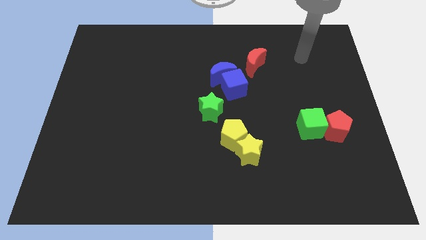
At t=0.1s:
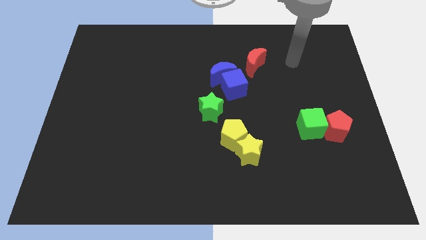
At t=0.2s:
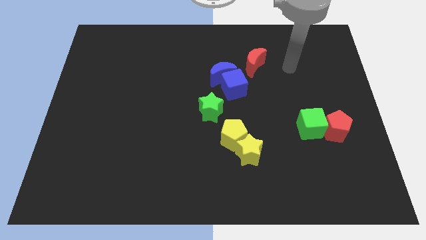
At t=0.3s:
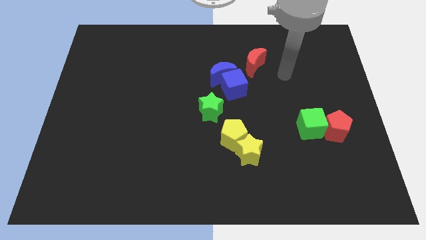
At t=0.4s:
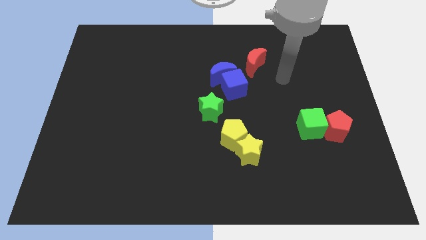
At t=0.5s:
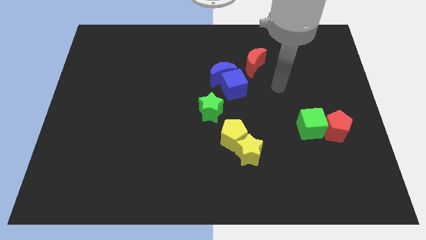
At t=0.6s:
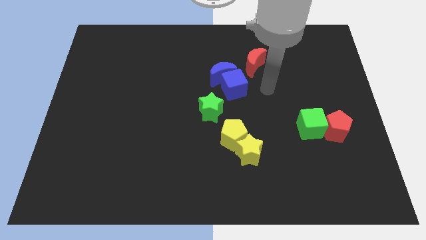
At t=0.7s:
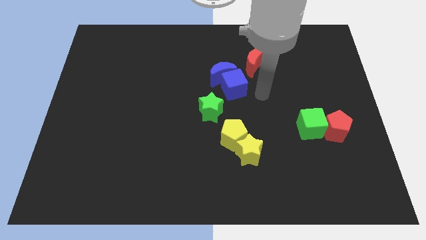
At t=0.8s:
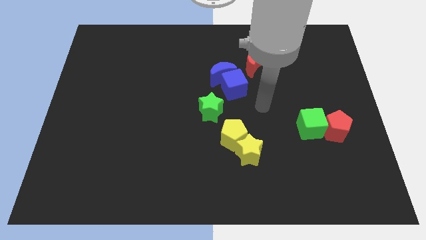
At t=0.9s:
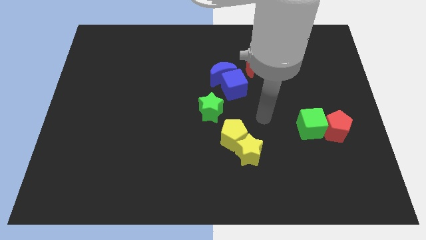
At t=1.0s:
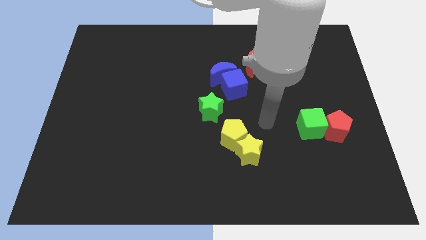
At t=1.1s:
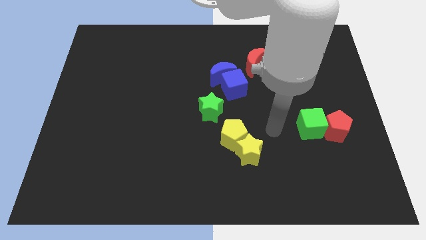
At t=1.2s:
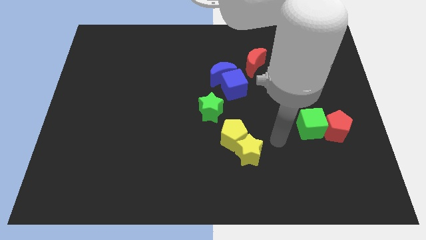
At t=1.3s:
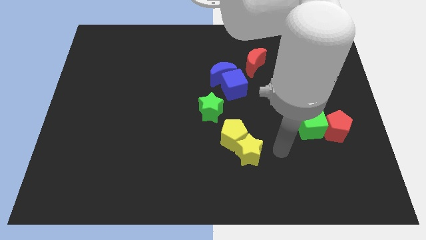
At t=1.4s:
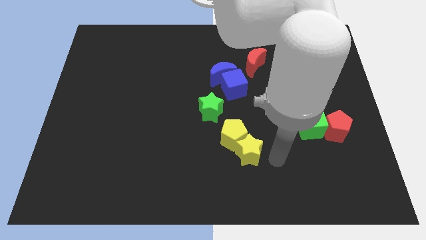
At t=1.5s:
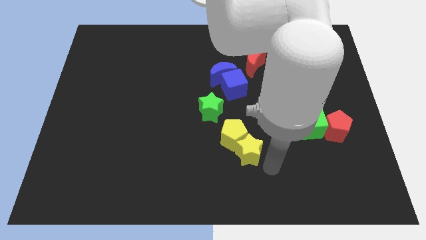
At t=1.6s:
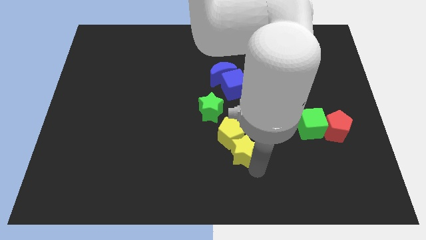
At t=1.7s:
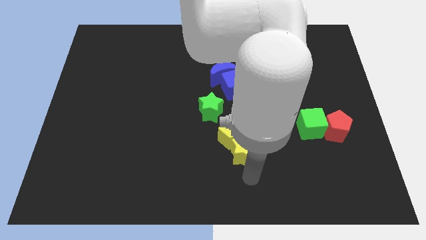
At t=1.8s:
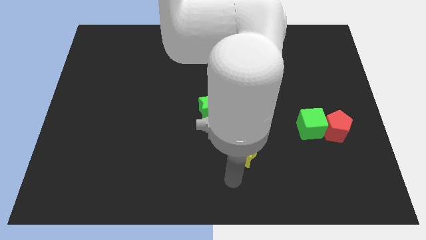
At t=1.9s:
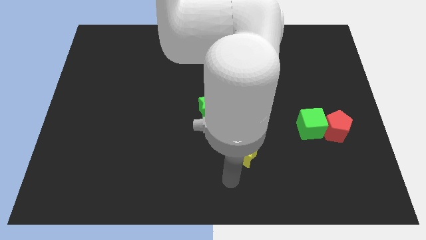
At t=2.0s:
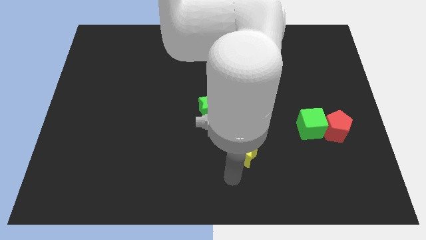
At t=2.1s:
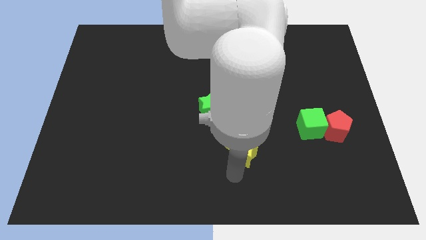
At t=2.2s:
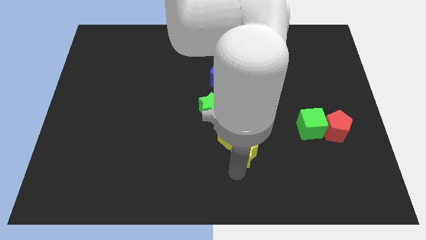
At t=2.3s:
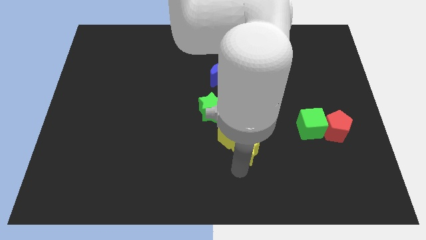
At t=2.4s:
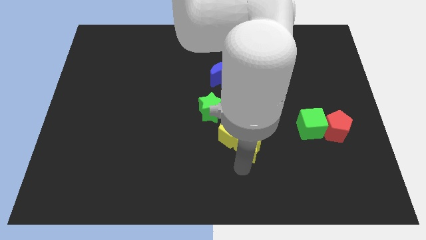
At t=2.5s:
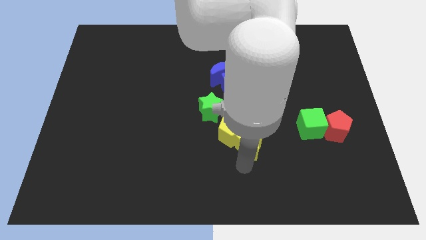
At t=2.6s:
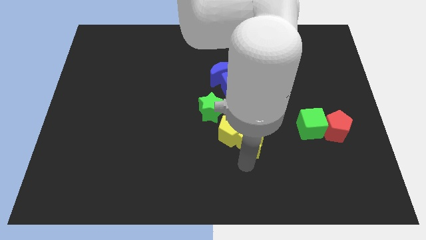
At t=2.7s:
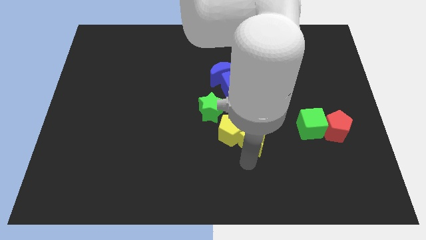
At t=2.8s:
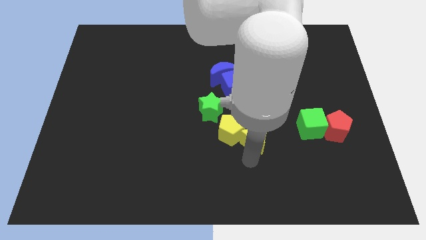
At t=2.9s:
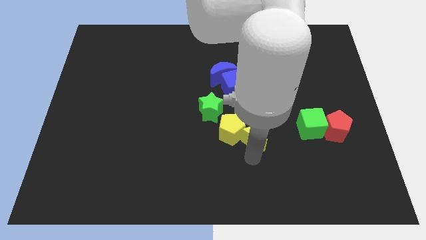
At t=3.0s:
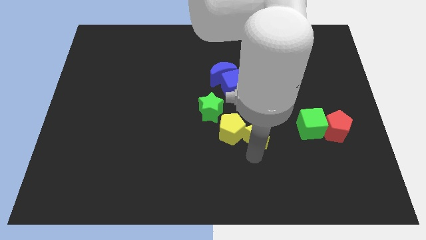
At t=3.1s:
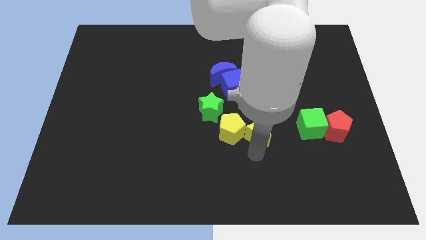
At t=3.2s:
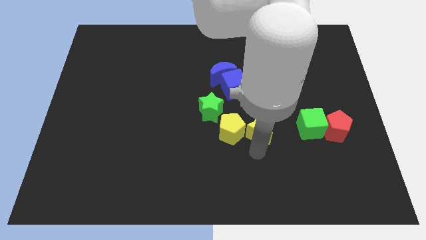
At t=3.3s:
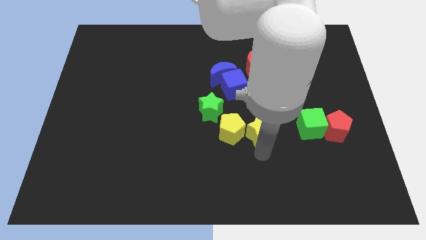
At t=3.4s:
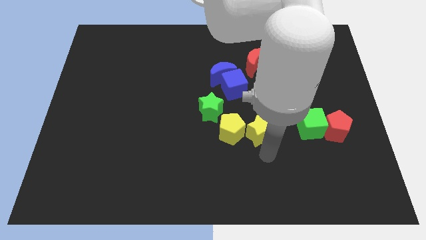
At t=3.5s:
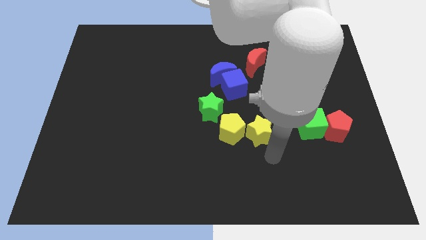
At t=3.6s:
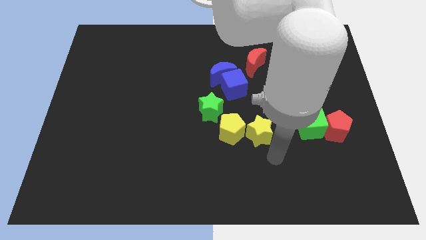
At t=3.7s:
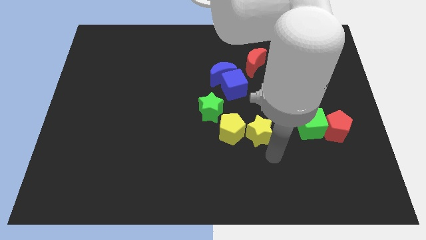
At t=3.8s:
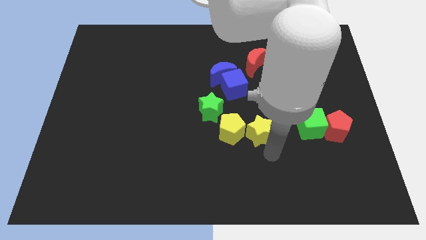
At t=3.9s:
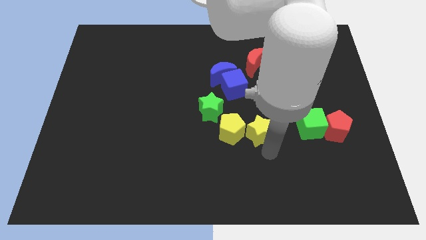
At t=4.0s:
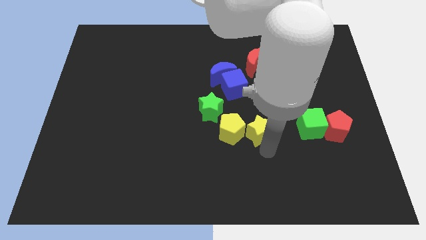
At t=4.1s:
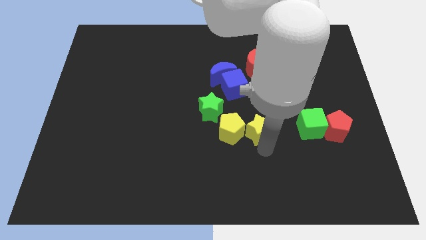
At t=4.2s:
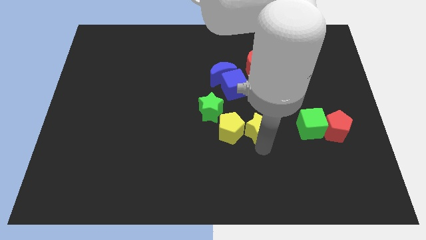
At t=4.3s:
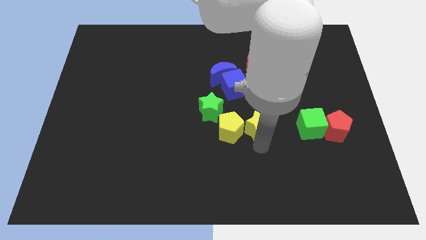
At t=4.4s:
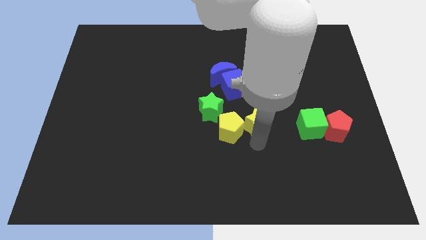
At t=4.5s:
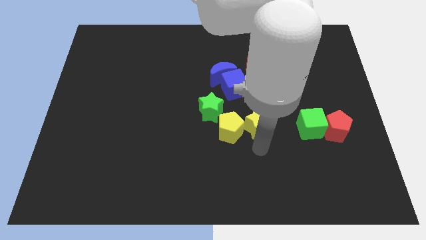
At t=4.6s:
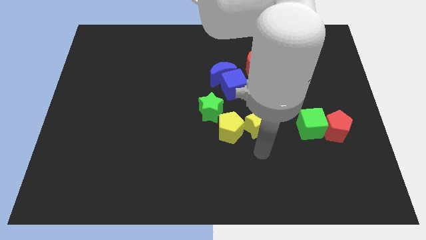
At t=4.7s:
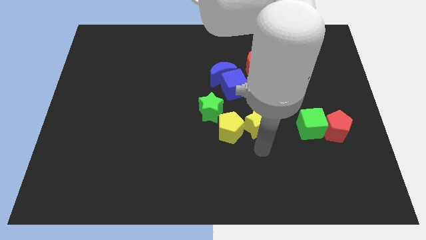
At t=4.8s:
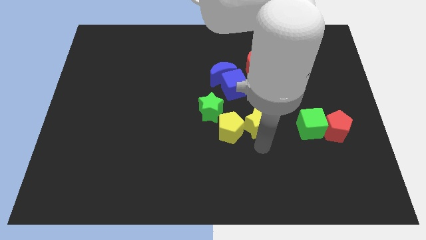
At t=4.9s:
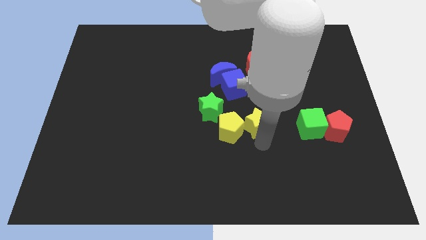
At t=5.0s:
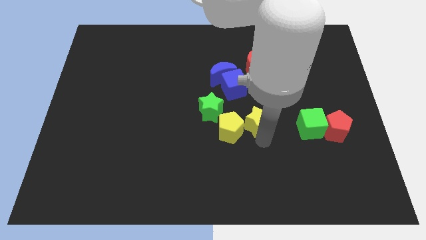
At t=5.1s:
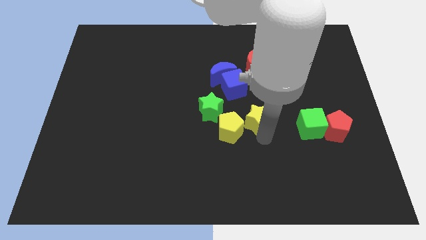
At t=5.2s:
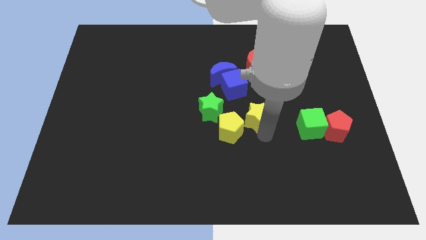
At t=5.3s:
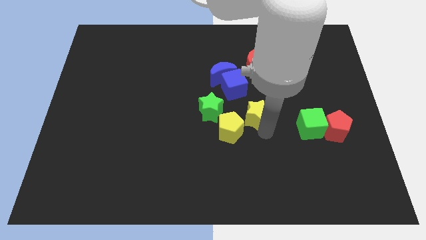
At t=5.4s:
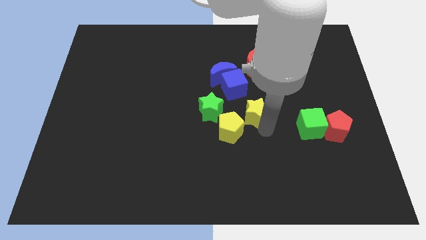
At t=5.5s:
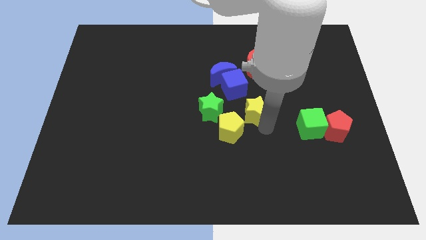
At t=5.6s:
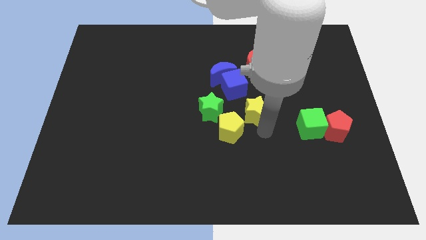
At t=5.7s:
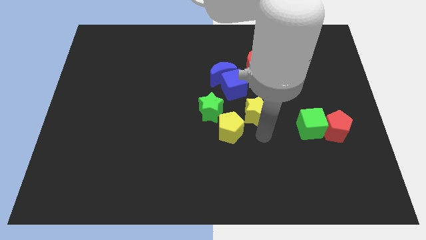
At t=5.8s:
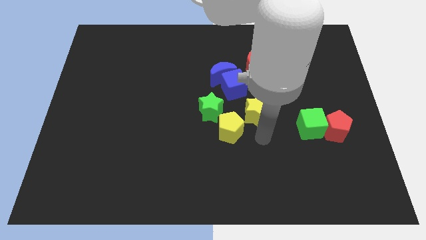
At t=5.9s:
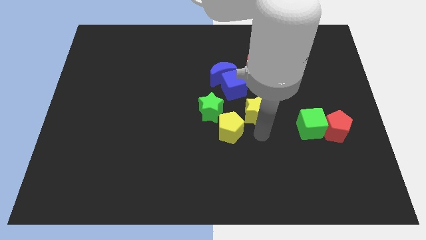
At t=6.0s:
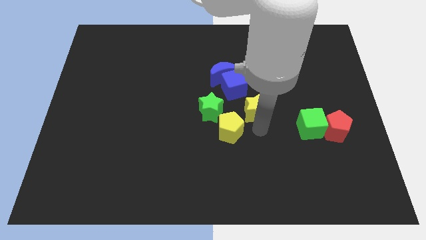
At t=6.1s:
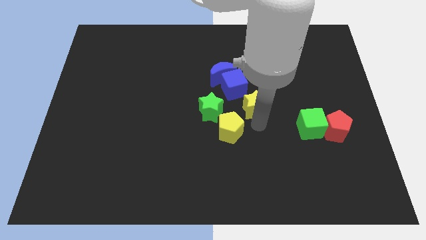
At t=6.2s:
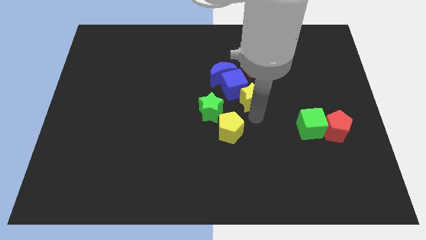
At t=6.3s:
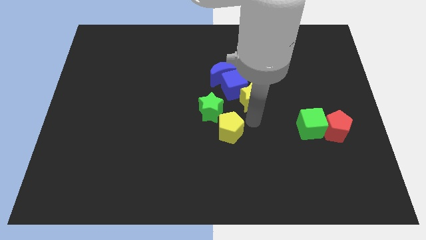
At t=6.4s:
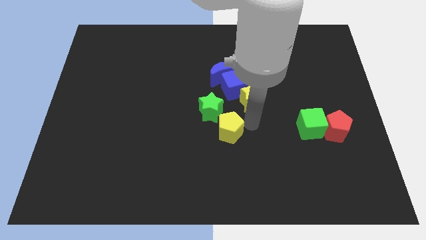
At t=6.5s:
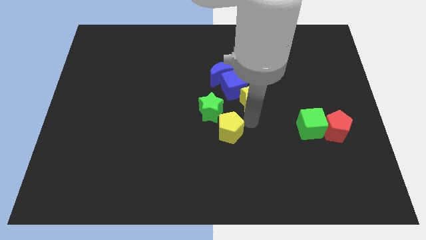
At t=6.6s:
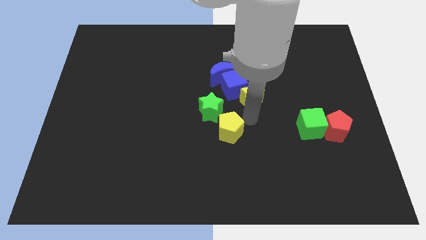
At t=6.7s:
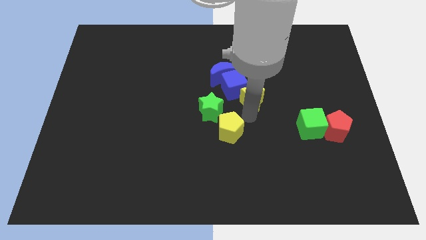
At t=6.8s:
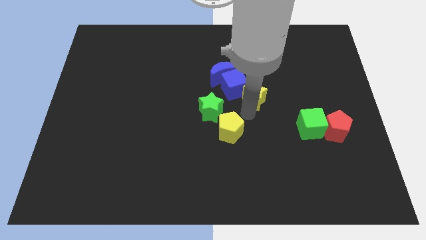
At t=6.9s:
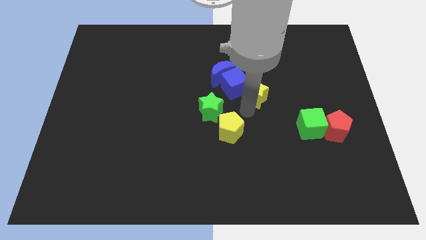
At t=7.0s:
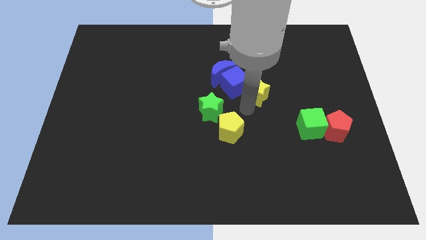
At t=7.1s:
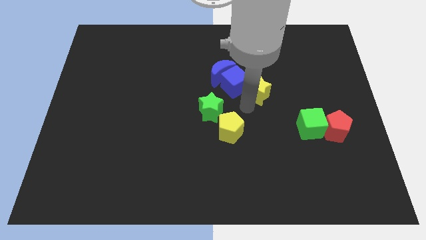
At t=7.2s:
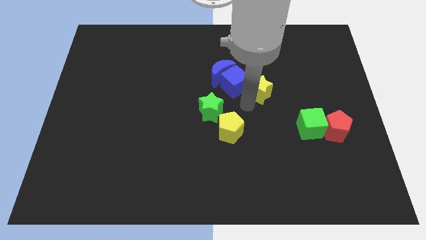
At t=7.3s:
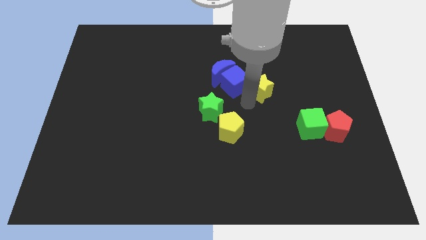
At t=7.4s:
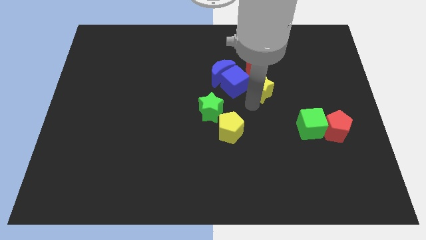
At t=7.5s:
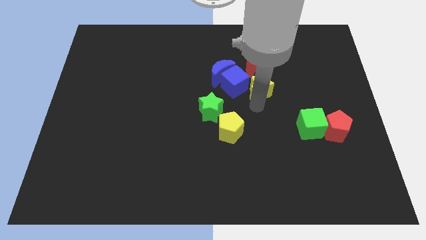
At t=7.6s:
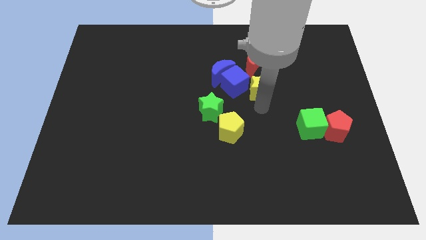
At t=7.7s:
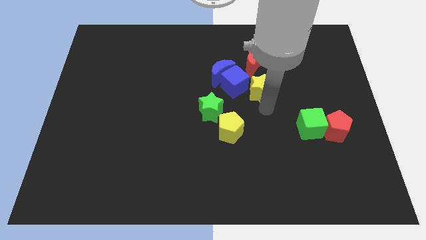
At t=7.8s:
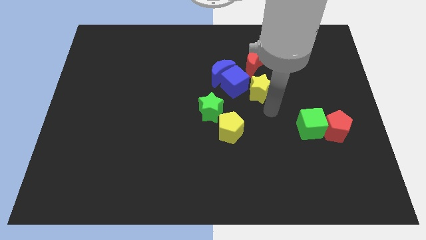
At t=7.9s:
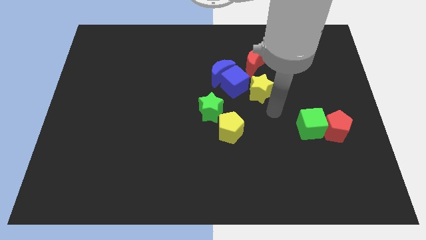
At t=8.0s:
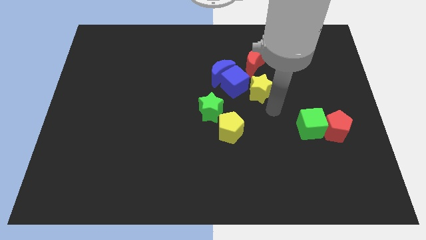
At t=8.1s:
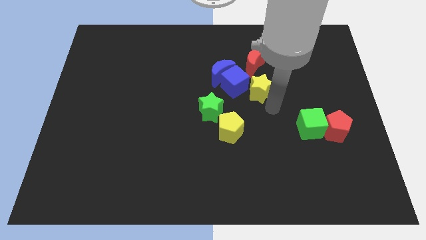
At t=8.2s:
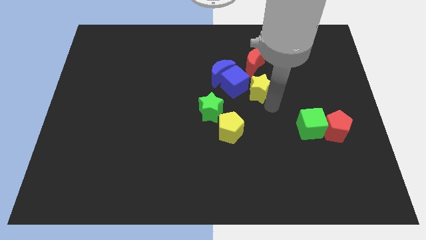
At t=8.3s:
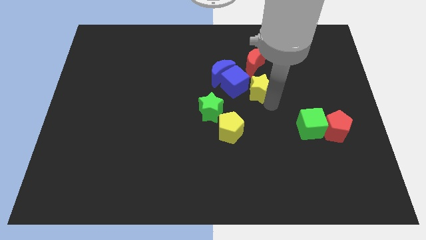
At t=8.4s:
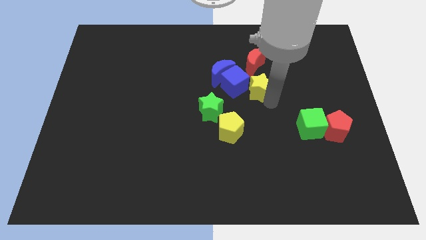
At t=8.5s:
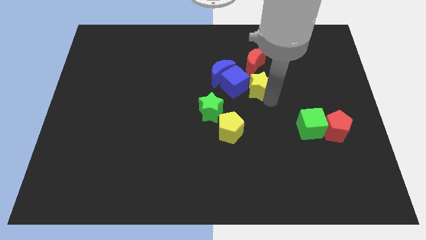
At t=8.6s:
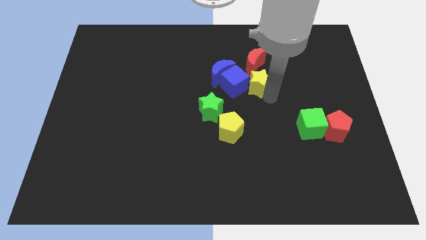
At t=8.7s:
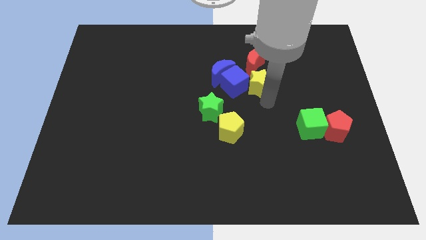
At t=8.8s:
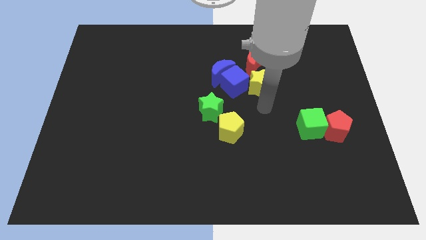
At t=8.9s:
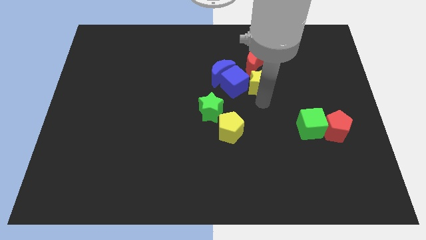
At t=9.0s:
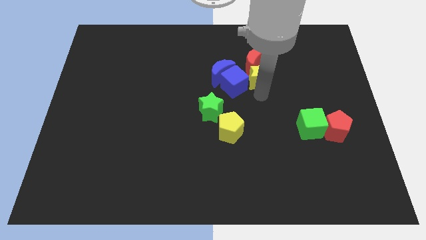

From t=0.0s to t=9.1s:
put the yellow star to the red moon
